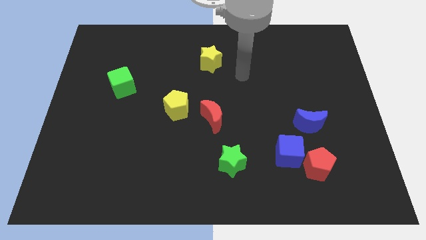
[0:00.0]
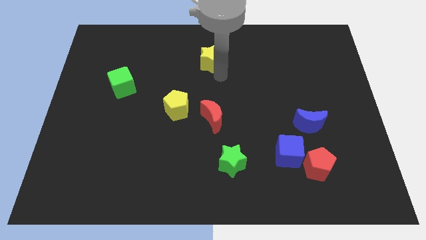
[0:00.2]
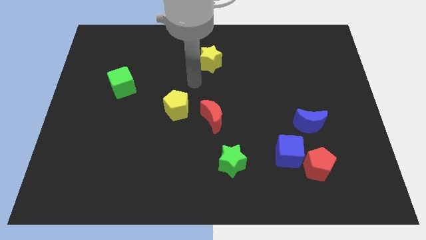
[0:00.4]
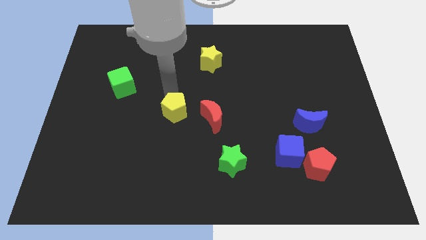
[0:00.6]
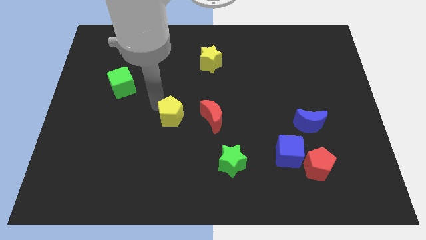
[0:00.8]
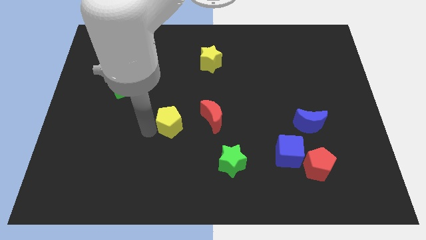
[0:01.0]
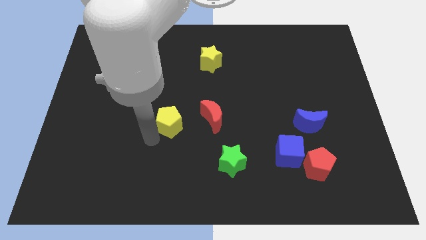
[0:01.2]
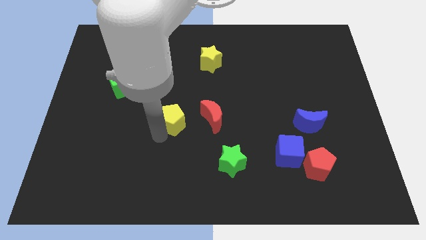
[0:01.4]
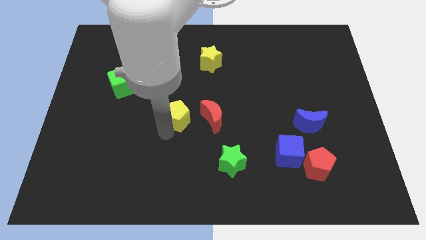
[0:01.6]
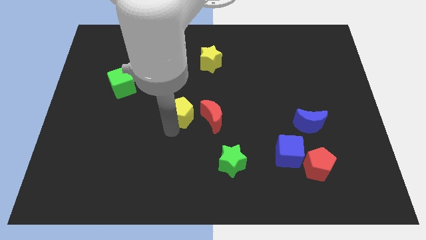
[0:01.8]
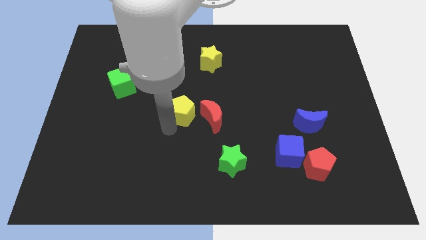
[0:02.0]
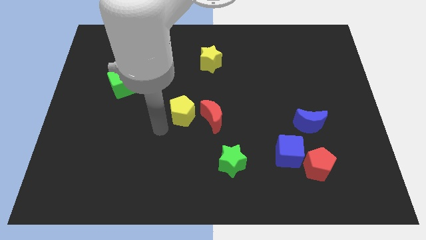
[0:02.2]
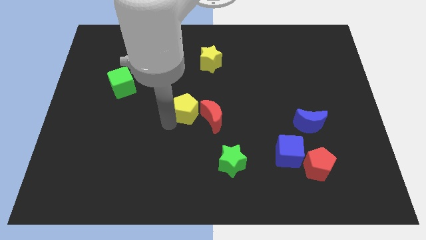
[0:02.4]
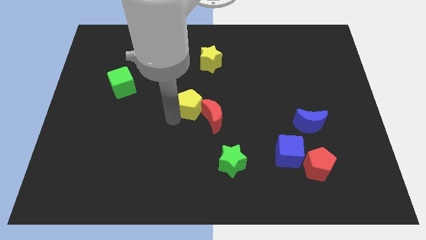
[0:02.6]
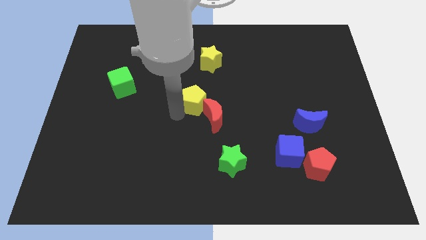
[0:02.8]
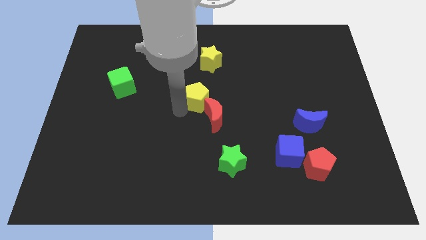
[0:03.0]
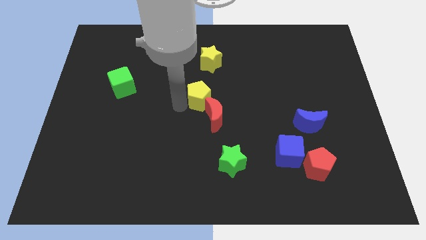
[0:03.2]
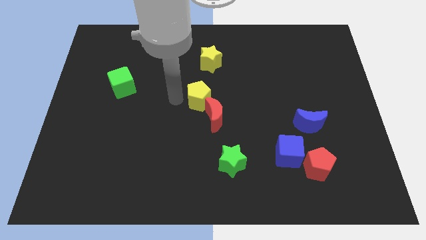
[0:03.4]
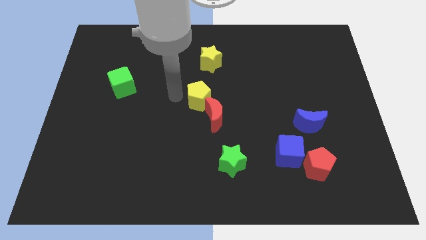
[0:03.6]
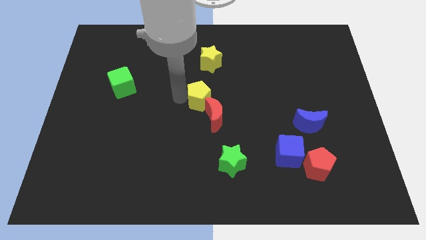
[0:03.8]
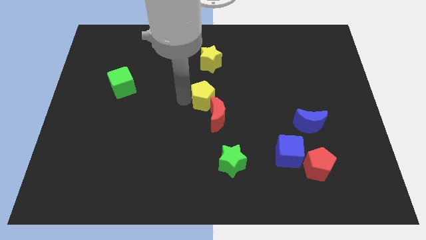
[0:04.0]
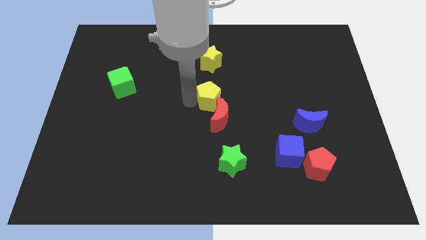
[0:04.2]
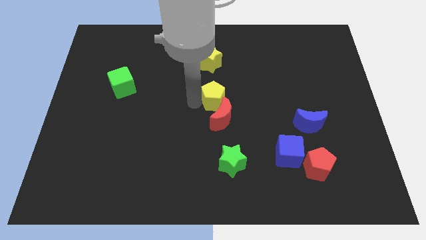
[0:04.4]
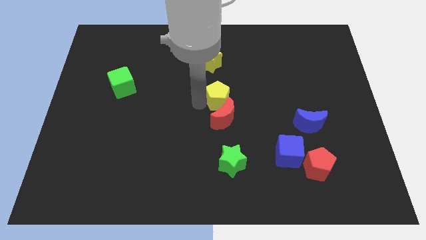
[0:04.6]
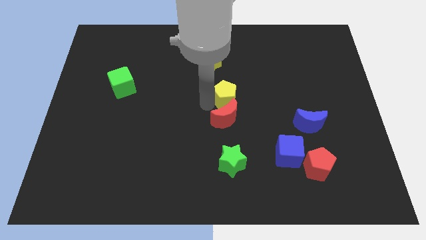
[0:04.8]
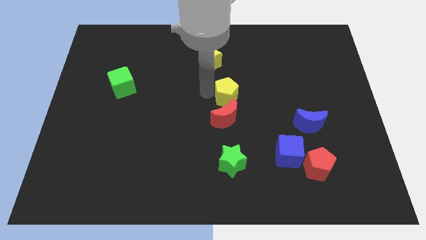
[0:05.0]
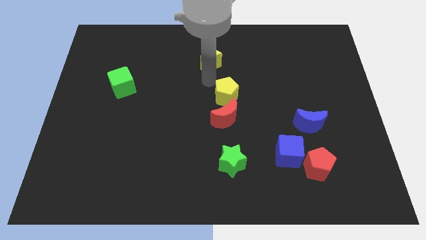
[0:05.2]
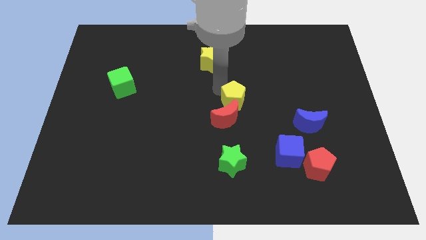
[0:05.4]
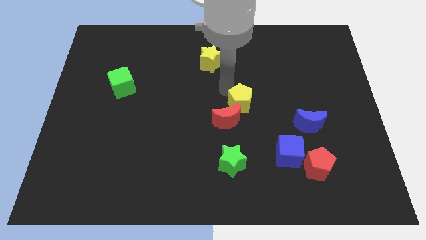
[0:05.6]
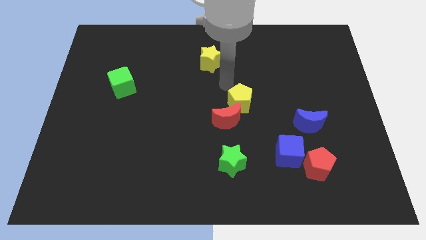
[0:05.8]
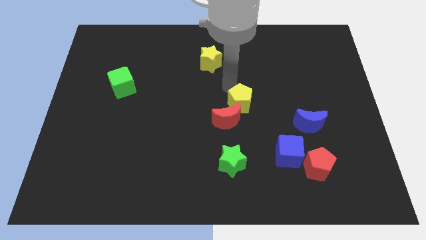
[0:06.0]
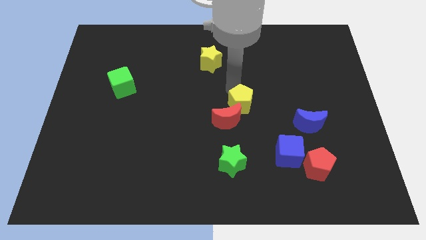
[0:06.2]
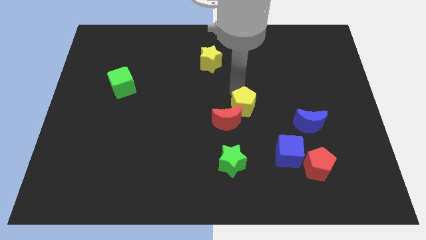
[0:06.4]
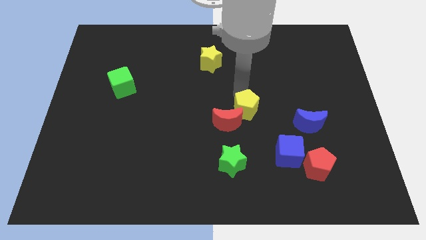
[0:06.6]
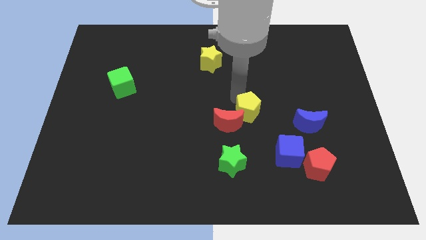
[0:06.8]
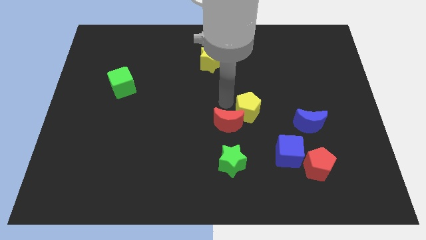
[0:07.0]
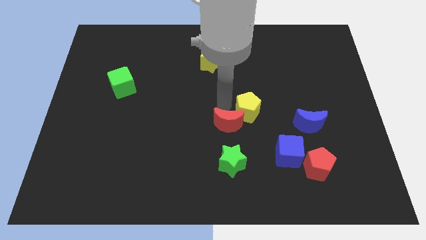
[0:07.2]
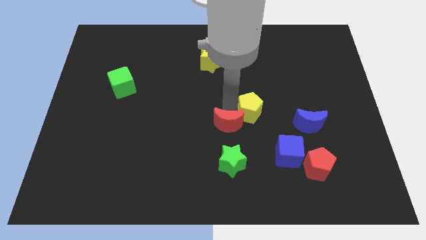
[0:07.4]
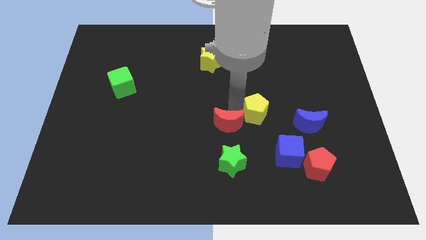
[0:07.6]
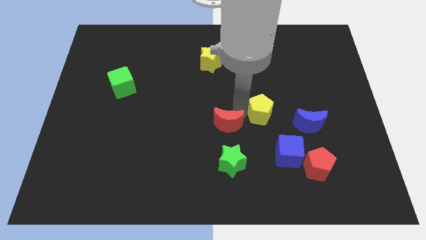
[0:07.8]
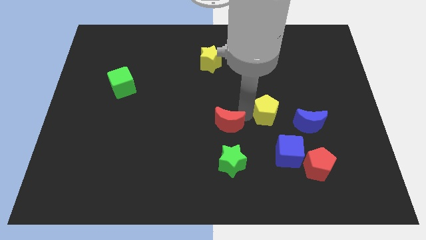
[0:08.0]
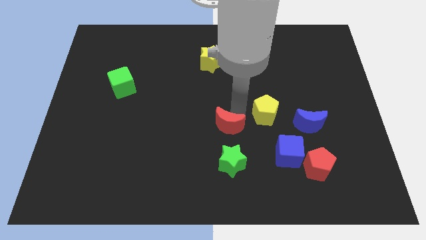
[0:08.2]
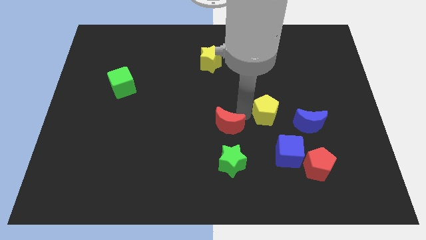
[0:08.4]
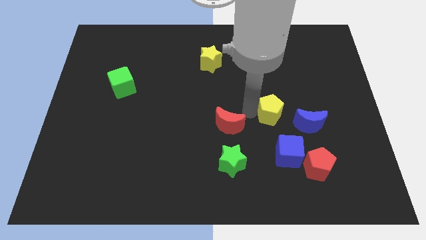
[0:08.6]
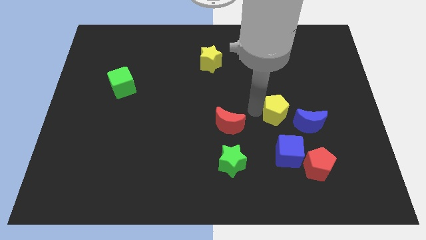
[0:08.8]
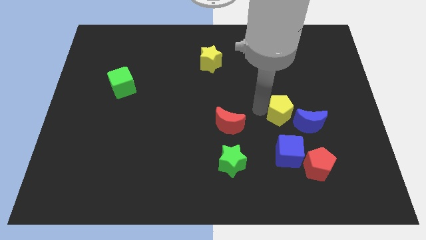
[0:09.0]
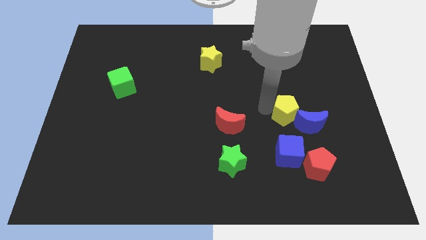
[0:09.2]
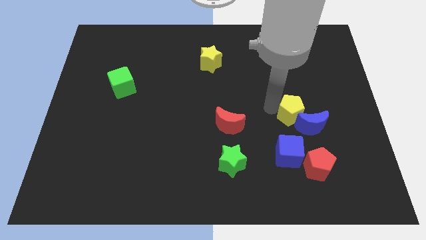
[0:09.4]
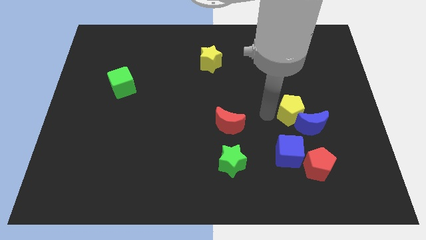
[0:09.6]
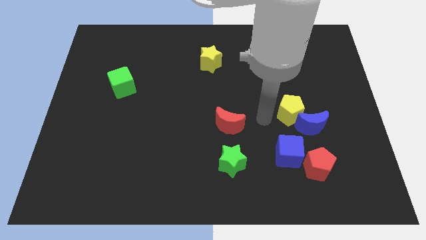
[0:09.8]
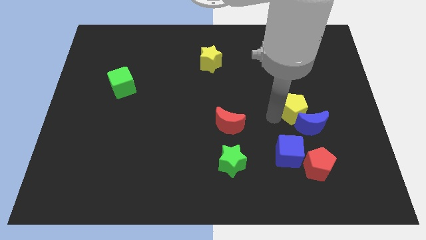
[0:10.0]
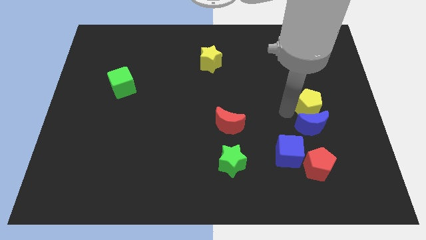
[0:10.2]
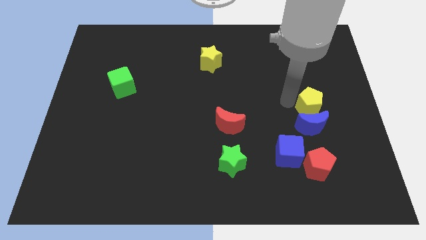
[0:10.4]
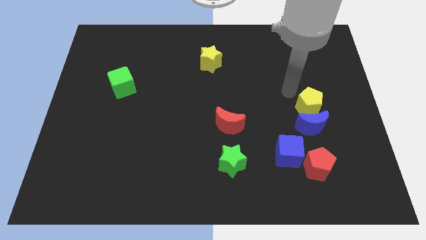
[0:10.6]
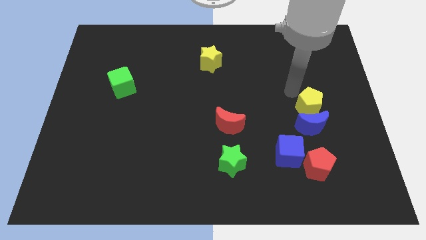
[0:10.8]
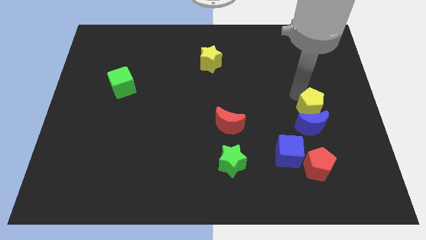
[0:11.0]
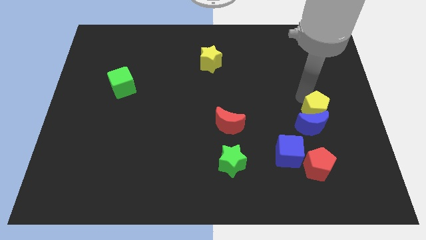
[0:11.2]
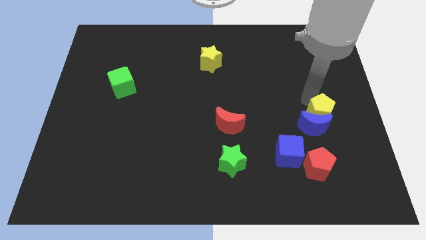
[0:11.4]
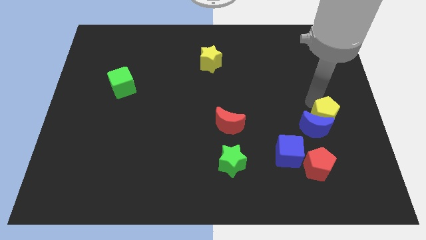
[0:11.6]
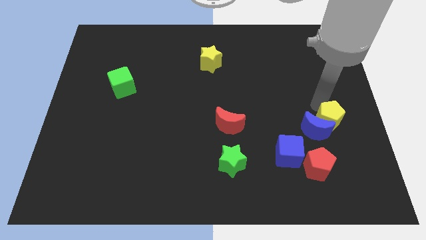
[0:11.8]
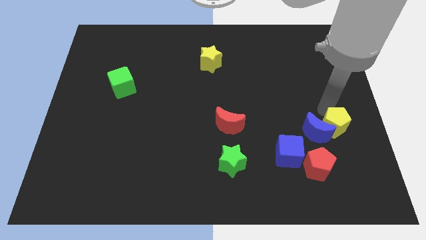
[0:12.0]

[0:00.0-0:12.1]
move the yellow pentagon diagonally down and to the right of the blue moon

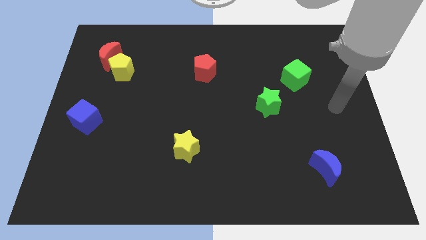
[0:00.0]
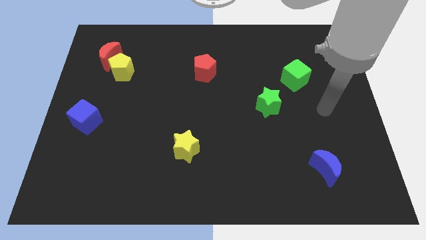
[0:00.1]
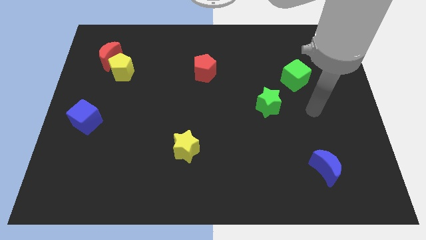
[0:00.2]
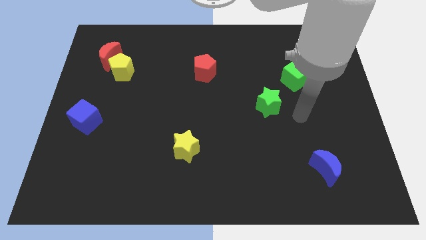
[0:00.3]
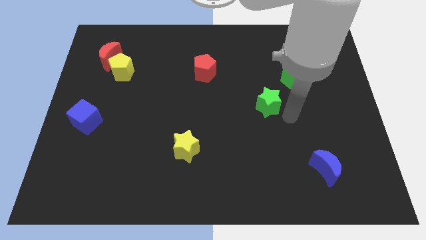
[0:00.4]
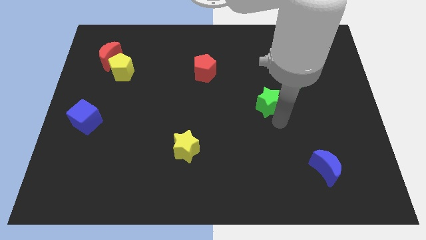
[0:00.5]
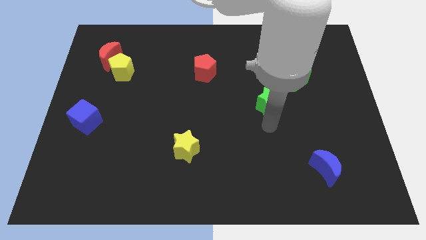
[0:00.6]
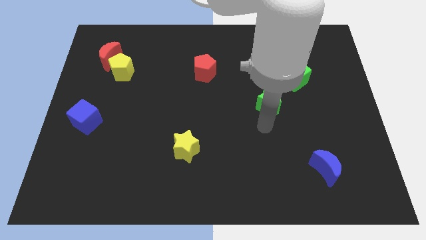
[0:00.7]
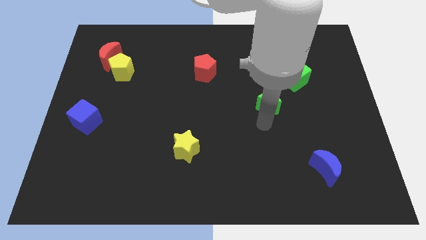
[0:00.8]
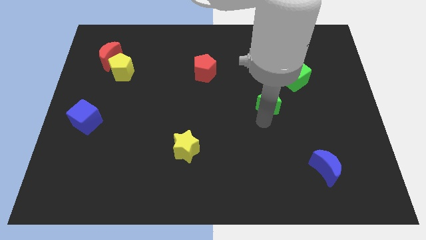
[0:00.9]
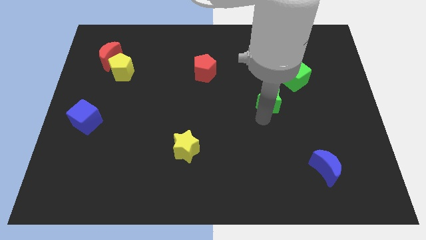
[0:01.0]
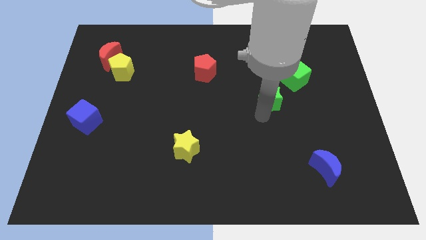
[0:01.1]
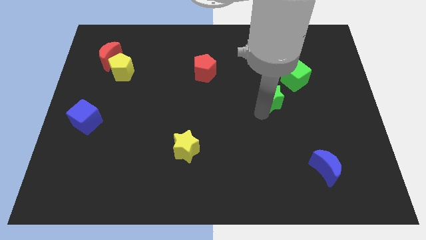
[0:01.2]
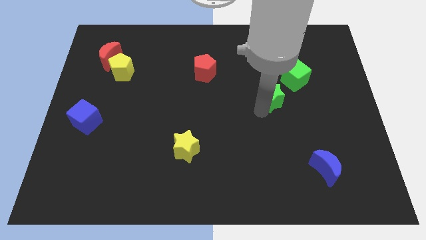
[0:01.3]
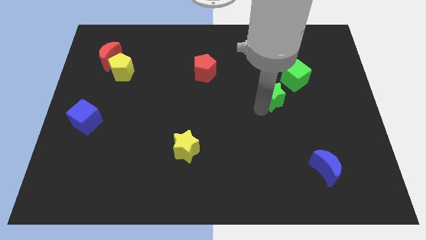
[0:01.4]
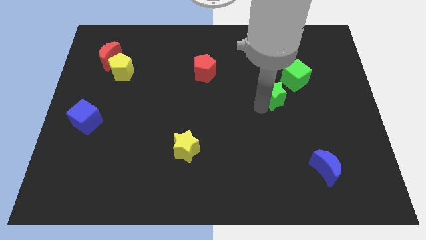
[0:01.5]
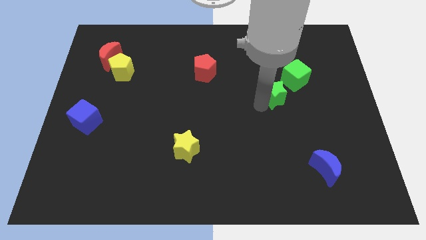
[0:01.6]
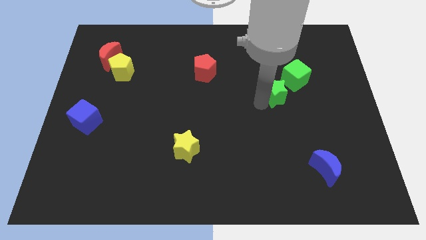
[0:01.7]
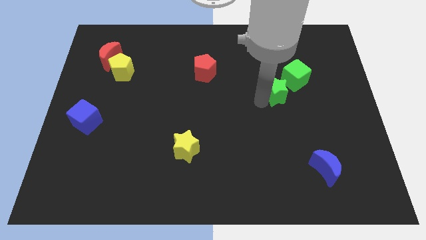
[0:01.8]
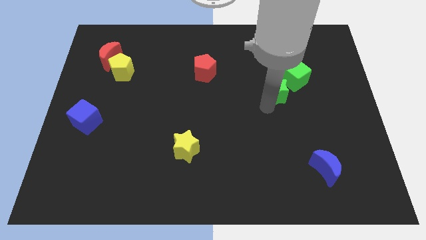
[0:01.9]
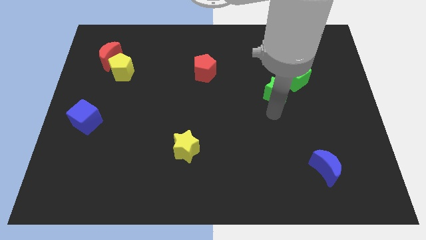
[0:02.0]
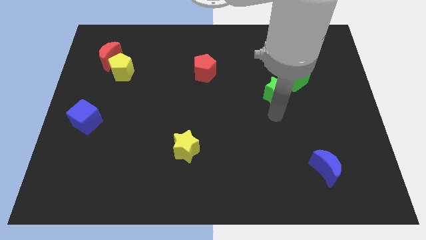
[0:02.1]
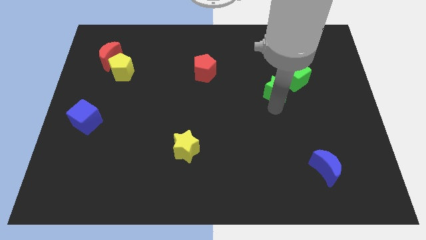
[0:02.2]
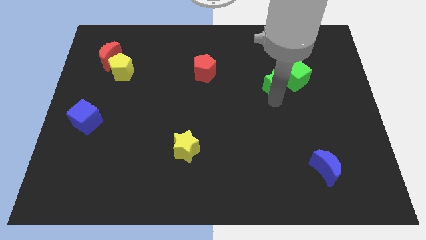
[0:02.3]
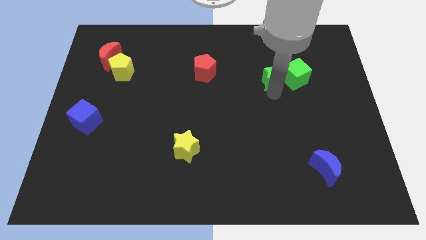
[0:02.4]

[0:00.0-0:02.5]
put the green star to the top left side of the green cube
